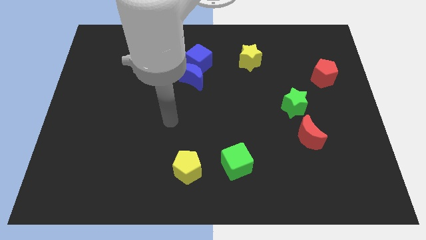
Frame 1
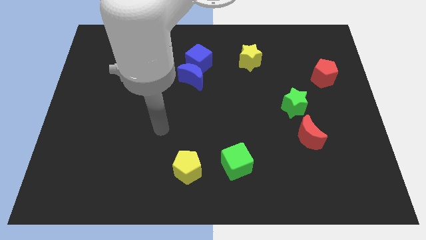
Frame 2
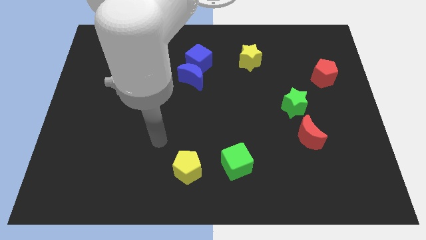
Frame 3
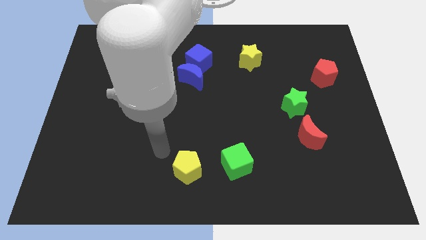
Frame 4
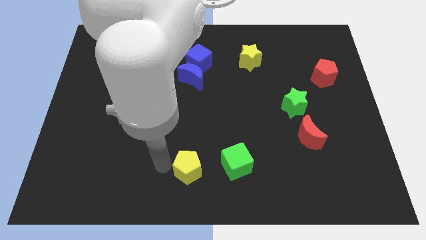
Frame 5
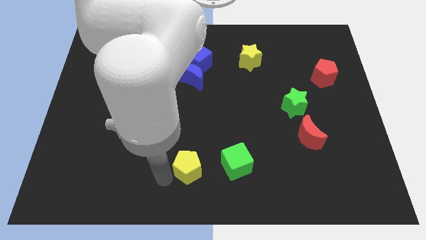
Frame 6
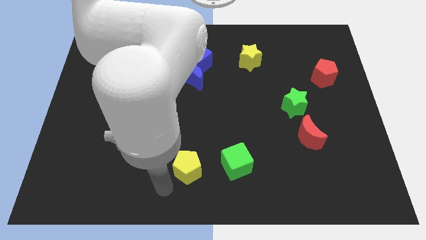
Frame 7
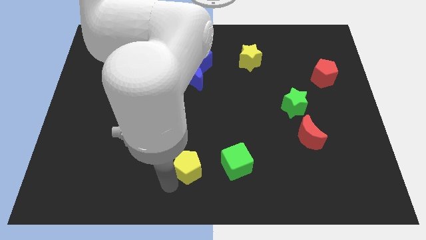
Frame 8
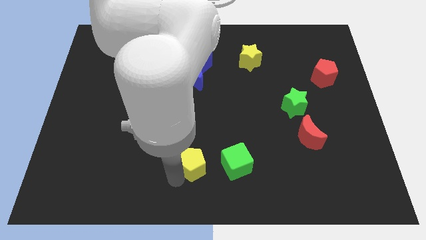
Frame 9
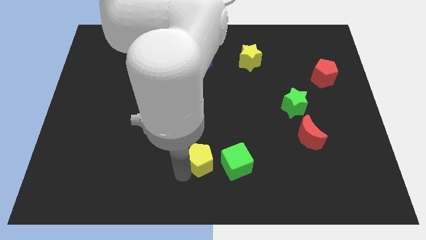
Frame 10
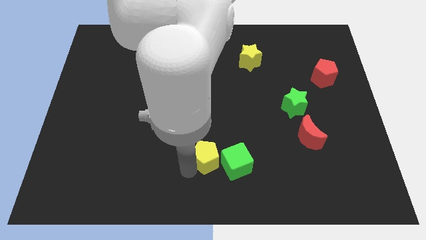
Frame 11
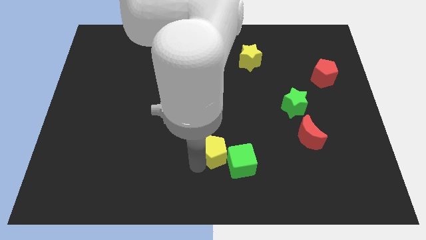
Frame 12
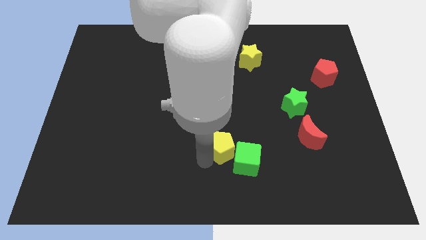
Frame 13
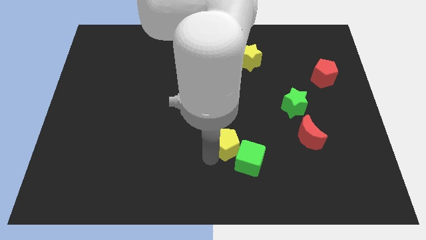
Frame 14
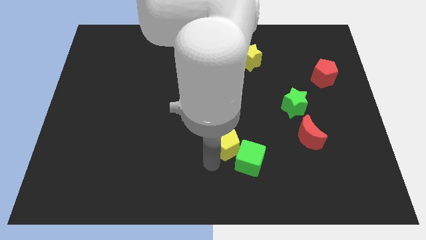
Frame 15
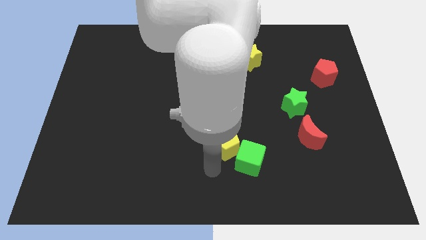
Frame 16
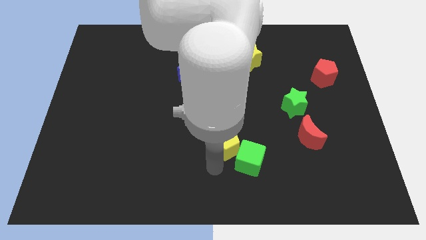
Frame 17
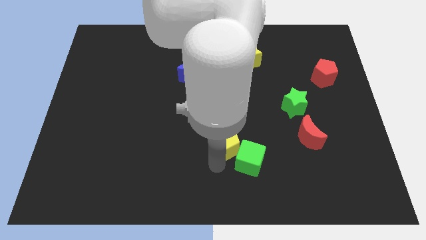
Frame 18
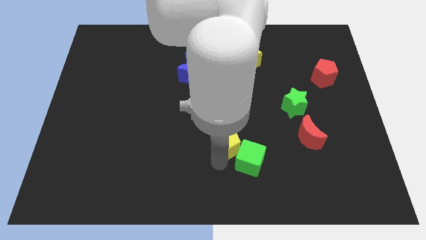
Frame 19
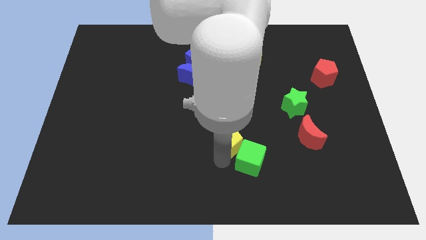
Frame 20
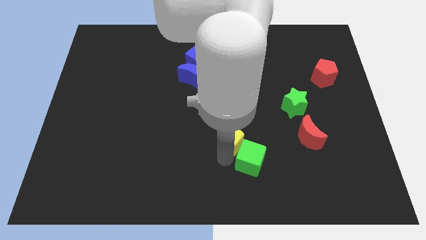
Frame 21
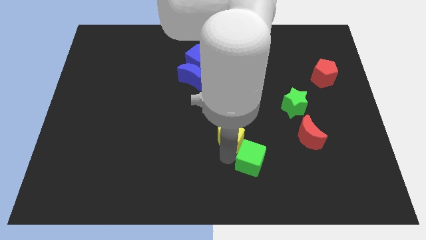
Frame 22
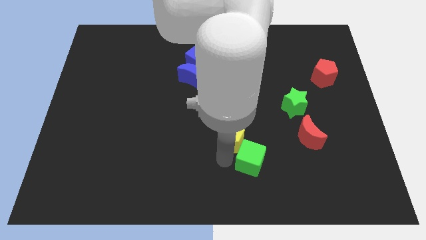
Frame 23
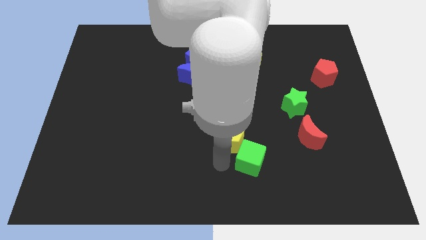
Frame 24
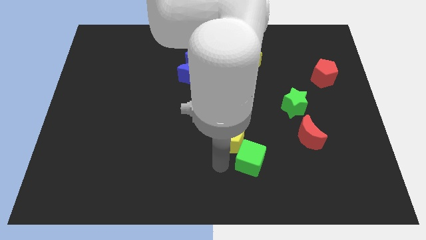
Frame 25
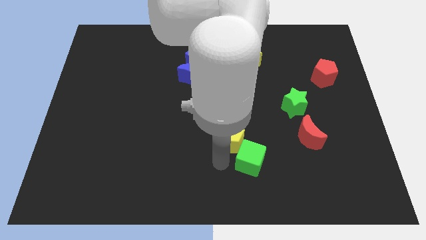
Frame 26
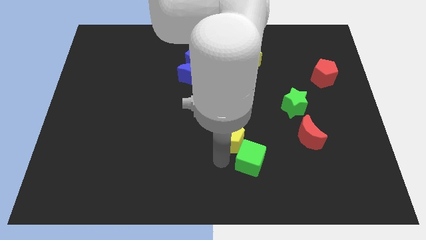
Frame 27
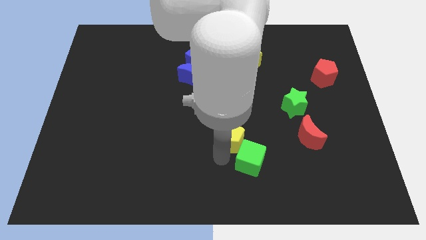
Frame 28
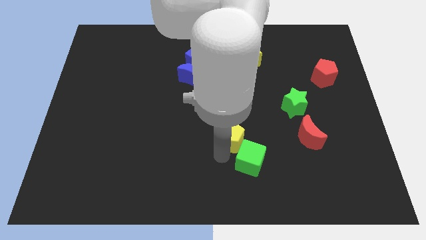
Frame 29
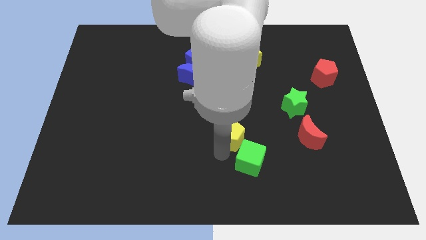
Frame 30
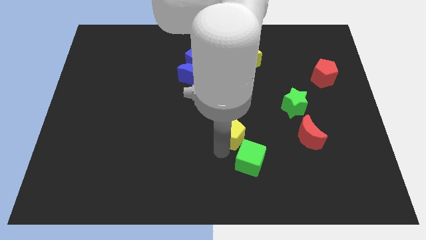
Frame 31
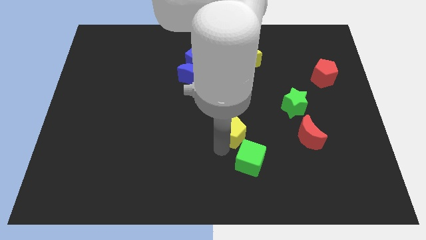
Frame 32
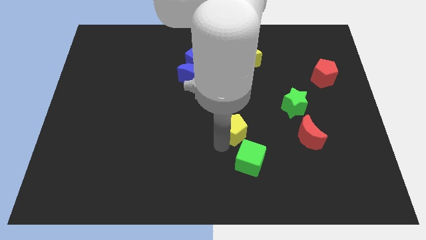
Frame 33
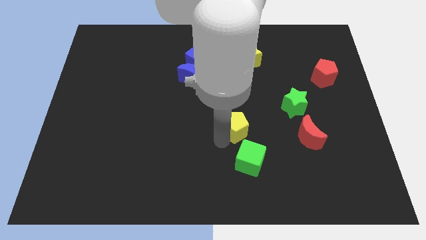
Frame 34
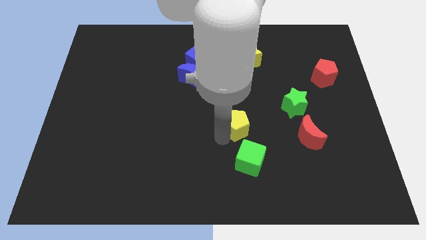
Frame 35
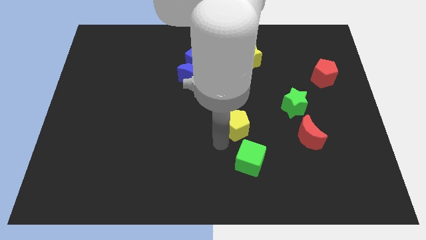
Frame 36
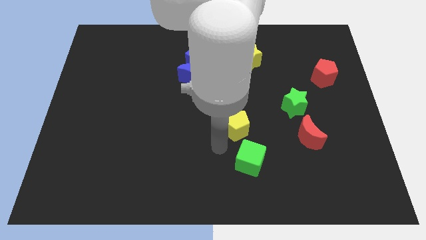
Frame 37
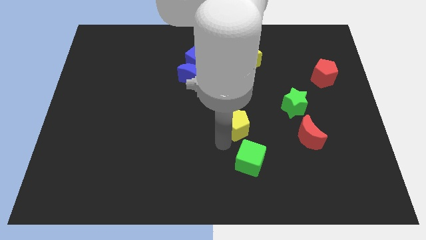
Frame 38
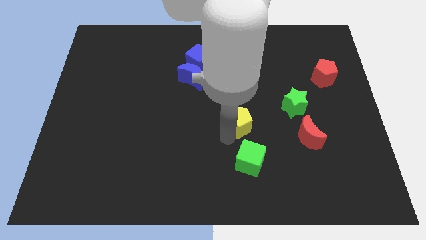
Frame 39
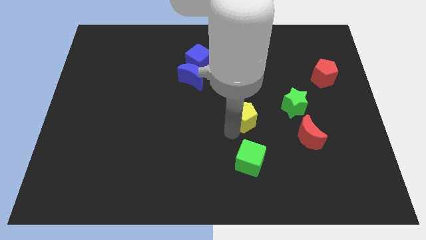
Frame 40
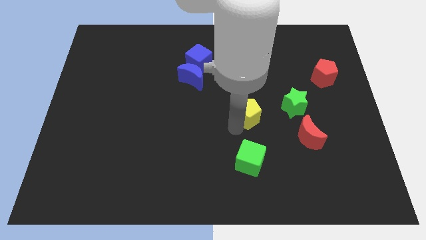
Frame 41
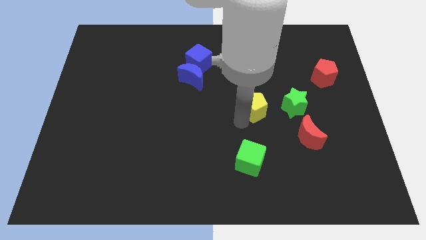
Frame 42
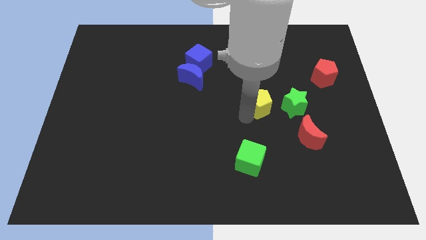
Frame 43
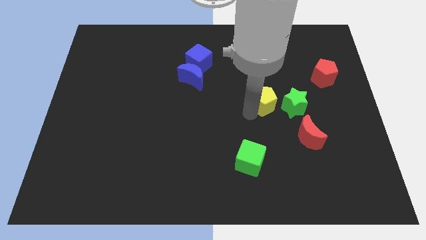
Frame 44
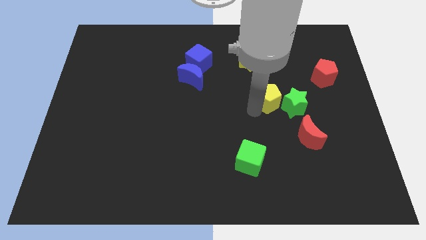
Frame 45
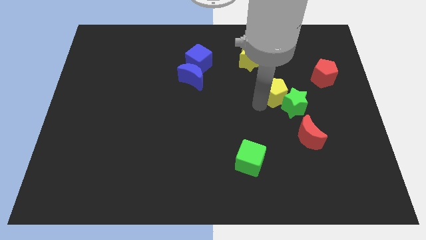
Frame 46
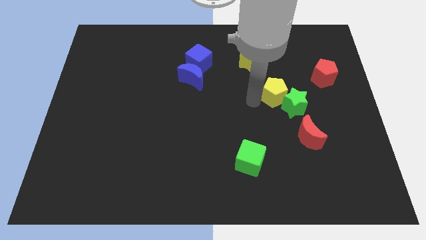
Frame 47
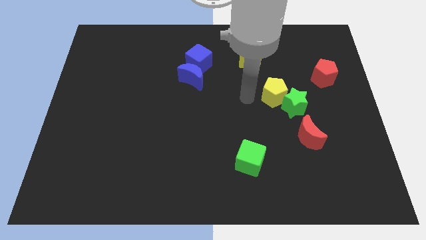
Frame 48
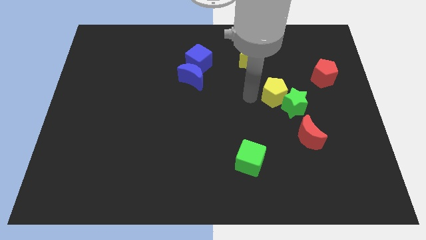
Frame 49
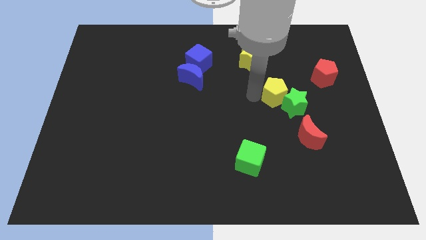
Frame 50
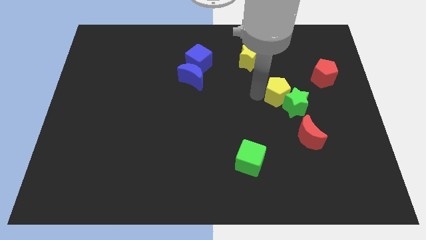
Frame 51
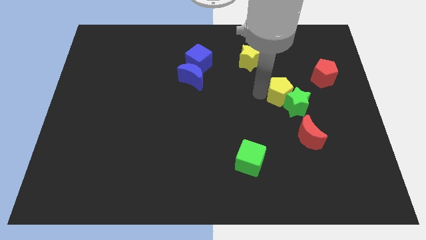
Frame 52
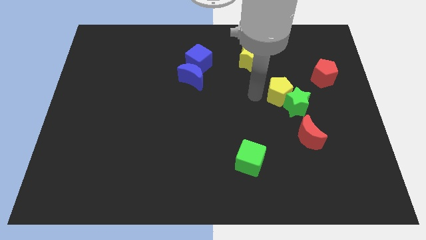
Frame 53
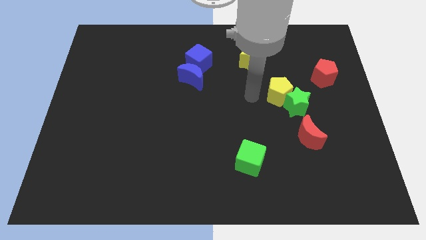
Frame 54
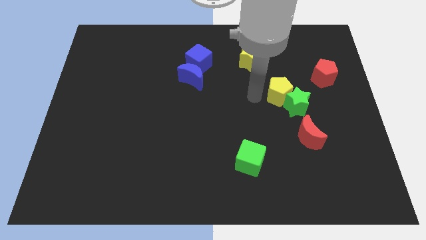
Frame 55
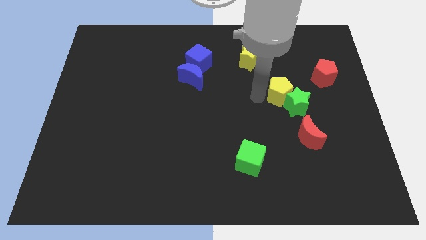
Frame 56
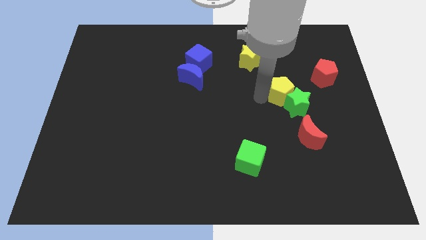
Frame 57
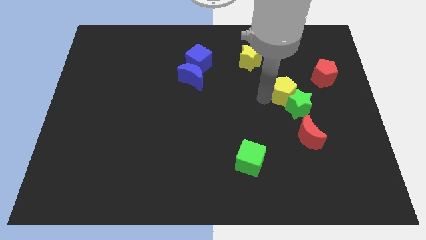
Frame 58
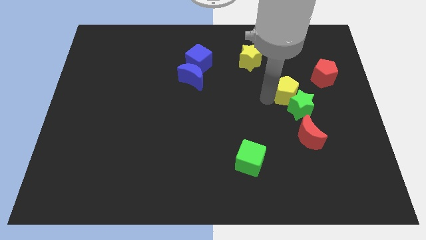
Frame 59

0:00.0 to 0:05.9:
slide the yellow pentagon to the bottom left side of the red pentagon

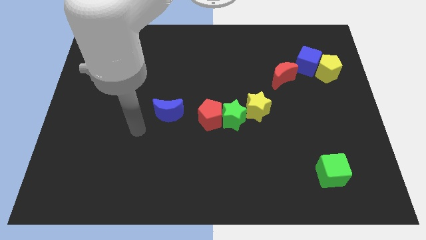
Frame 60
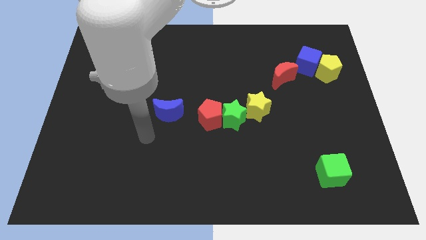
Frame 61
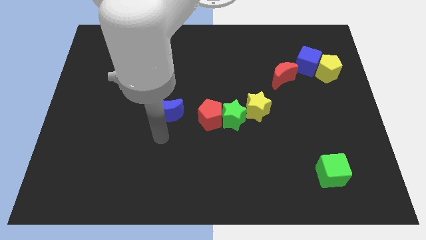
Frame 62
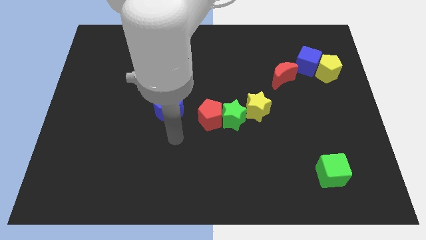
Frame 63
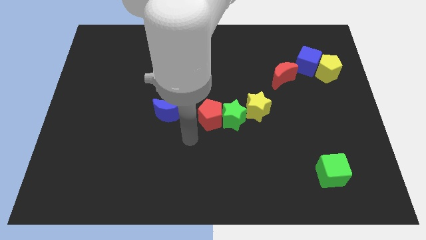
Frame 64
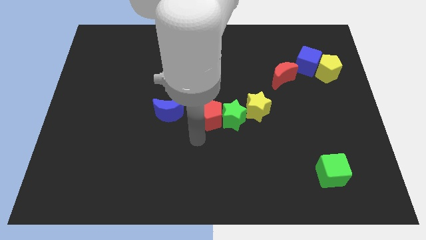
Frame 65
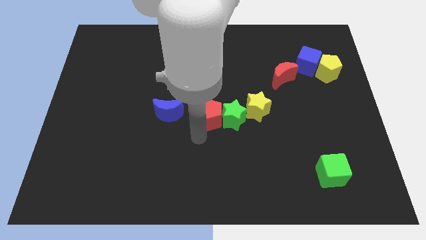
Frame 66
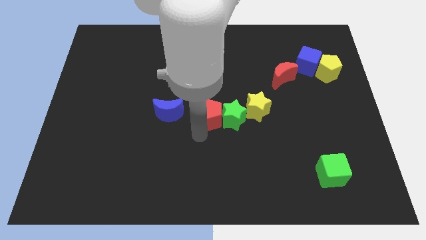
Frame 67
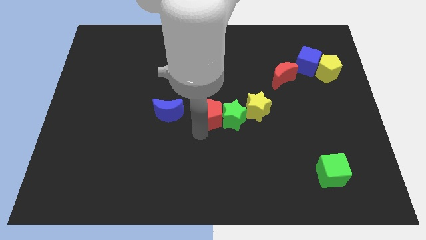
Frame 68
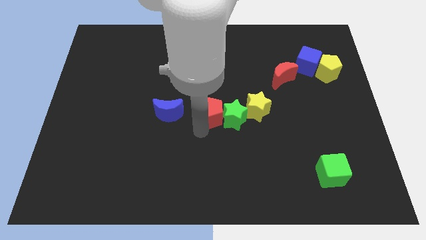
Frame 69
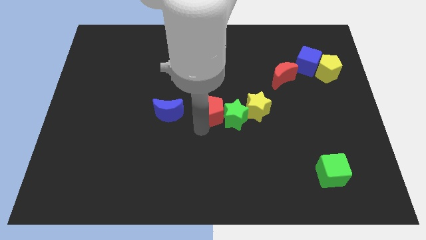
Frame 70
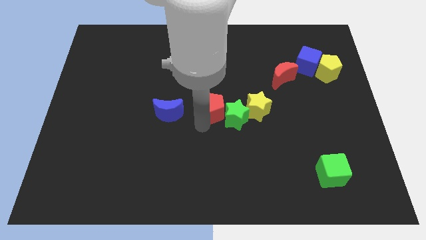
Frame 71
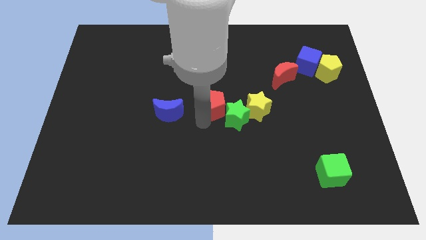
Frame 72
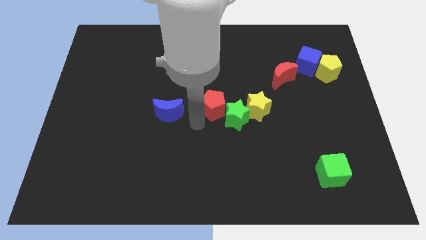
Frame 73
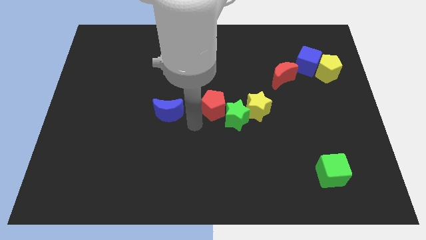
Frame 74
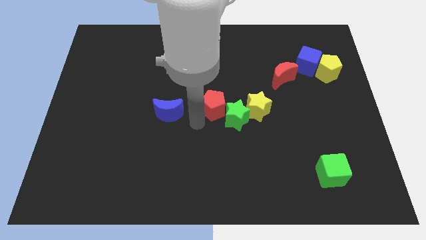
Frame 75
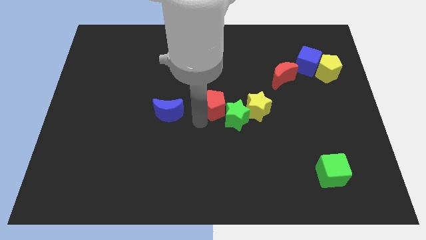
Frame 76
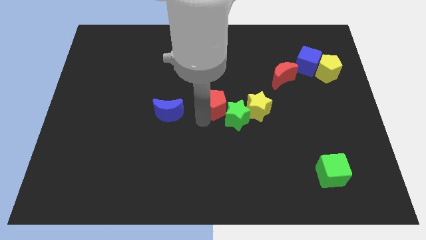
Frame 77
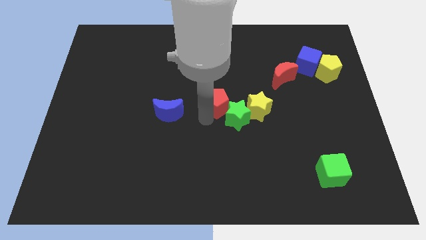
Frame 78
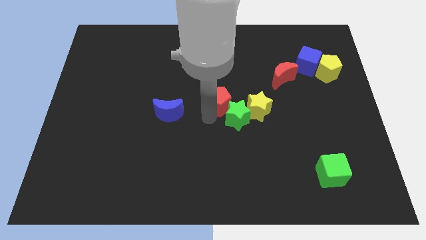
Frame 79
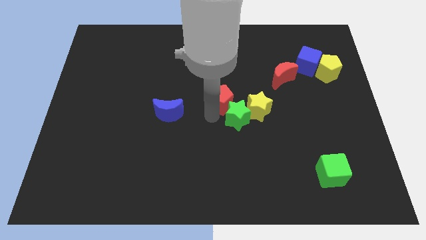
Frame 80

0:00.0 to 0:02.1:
move the red pentagon to the top left of the yellow star
